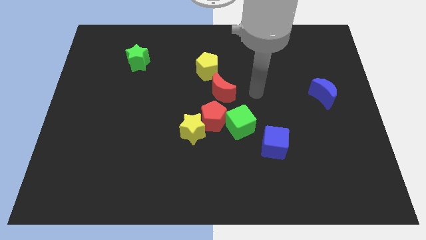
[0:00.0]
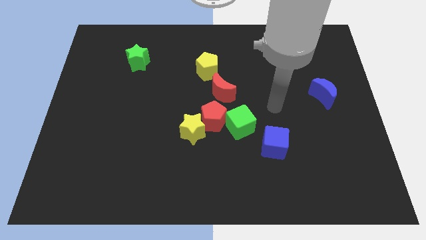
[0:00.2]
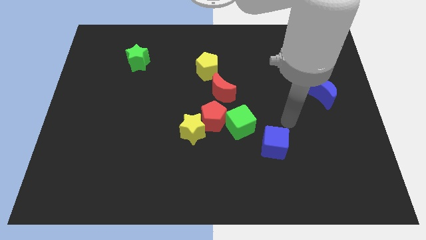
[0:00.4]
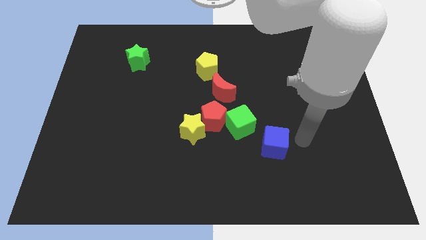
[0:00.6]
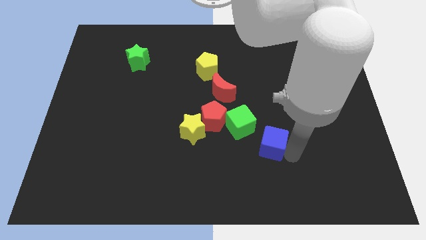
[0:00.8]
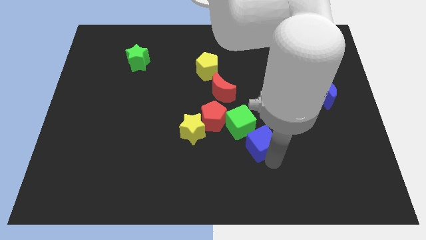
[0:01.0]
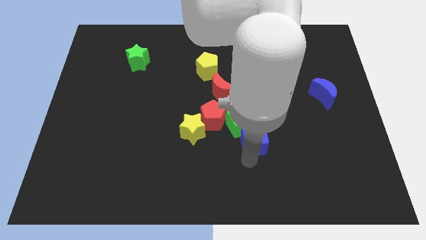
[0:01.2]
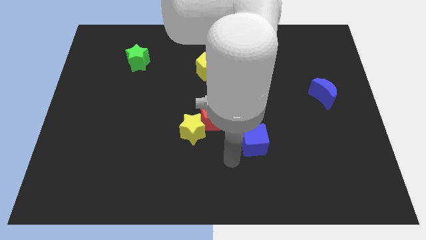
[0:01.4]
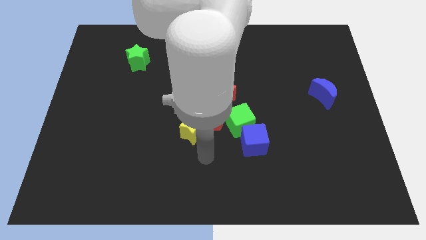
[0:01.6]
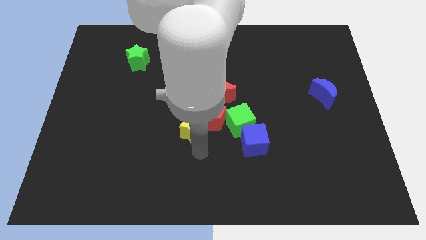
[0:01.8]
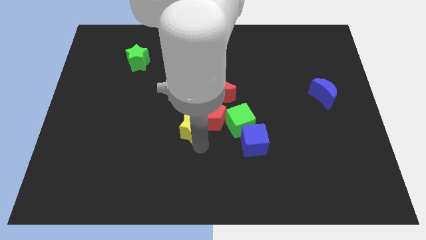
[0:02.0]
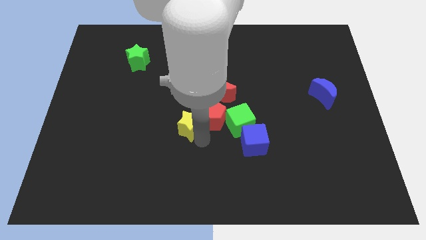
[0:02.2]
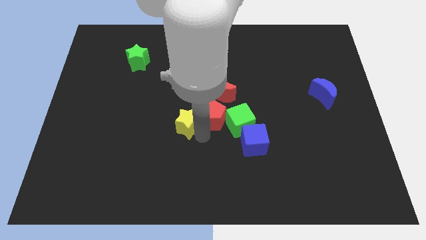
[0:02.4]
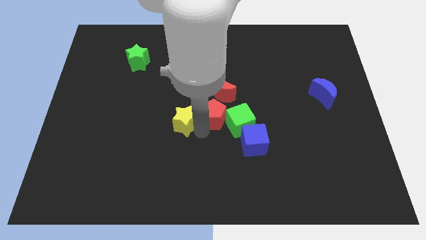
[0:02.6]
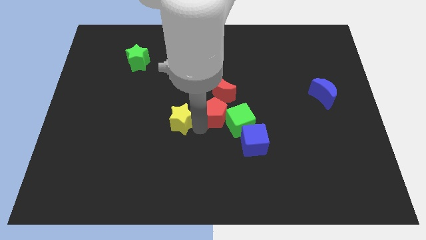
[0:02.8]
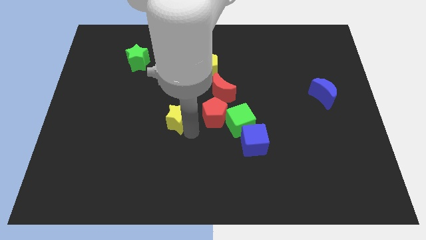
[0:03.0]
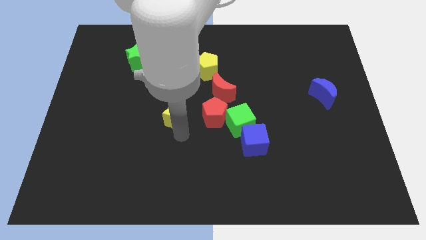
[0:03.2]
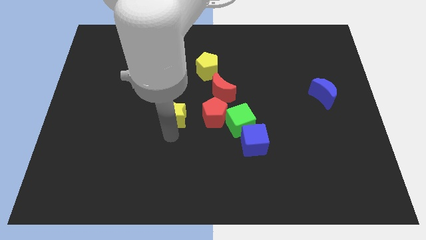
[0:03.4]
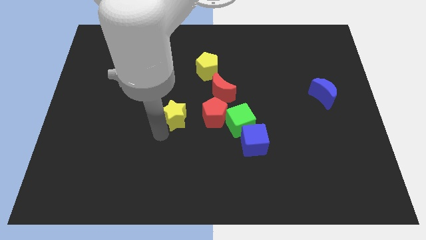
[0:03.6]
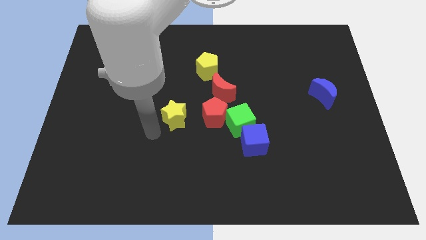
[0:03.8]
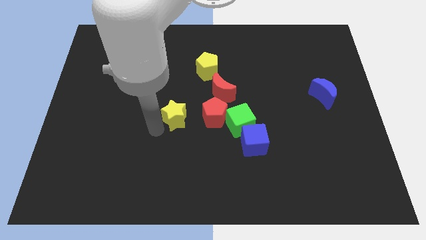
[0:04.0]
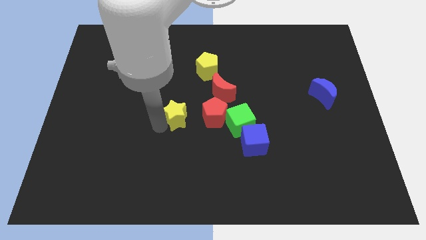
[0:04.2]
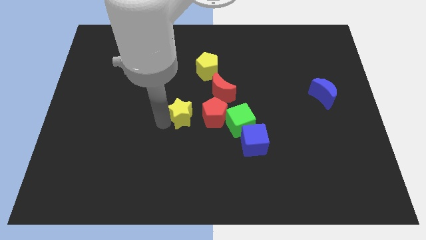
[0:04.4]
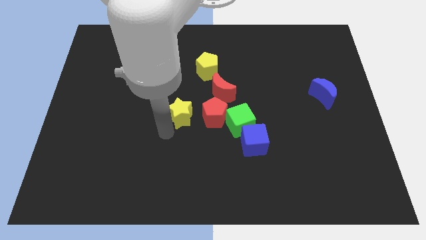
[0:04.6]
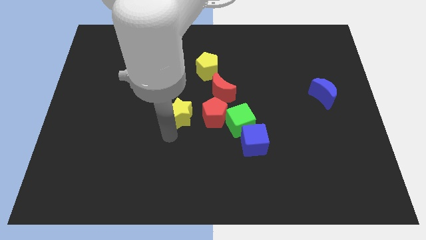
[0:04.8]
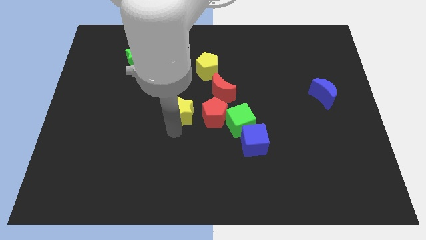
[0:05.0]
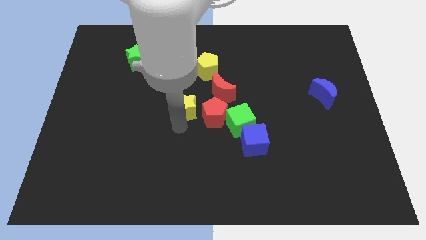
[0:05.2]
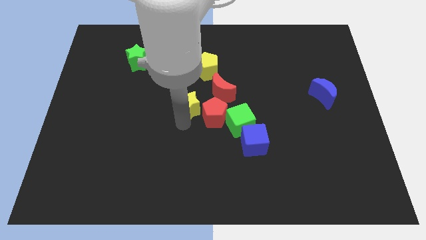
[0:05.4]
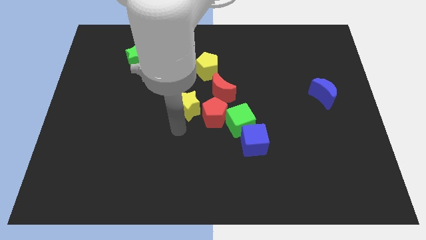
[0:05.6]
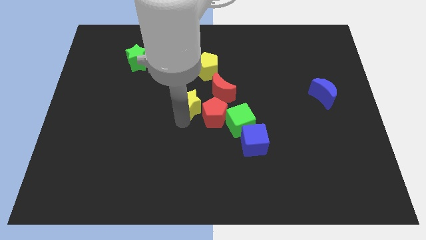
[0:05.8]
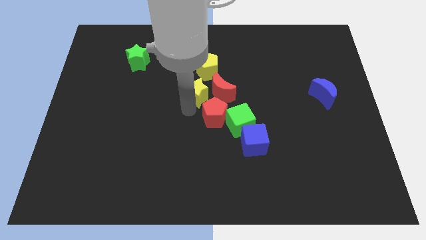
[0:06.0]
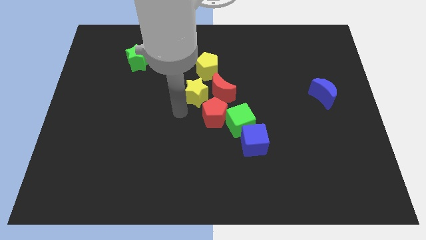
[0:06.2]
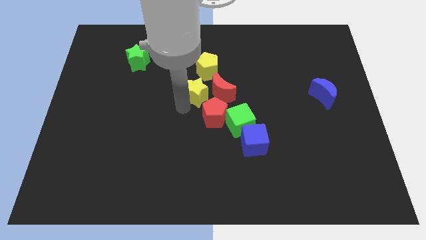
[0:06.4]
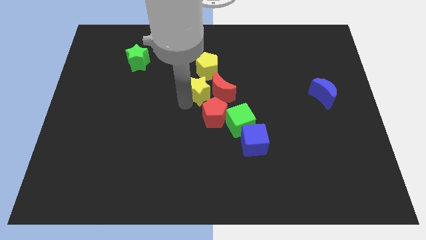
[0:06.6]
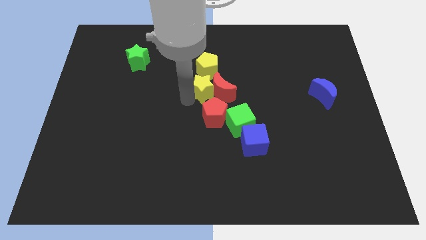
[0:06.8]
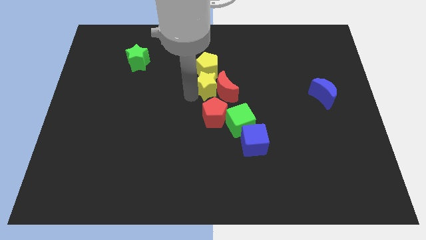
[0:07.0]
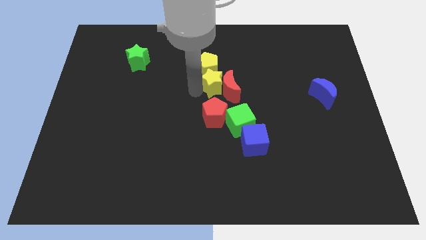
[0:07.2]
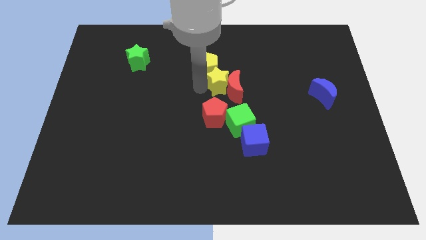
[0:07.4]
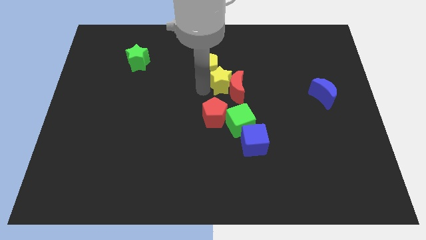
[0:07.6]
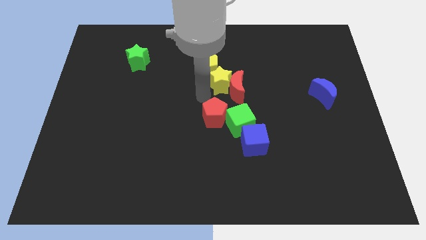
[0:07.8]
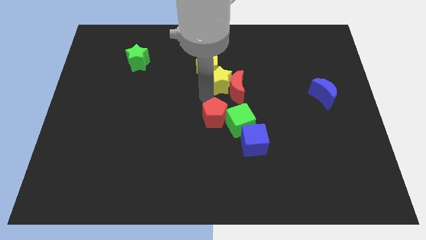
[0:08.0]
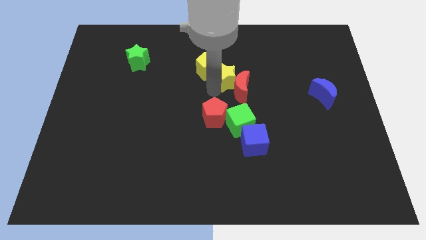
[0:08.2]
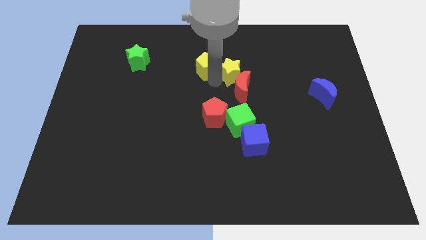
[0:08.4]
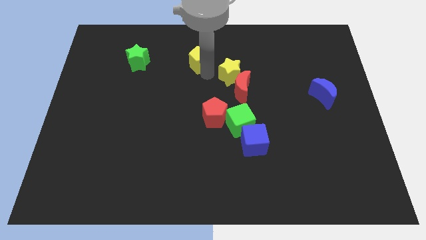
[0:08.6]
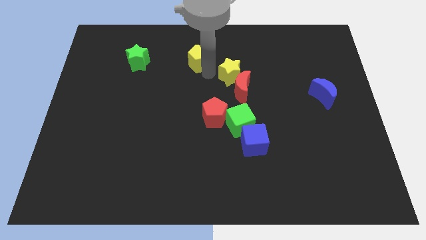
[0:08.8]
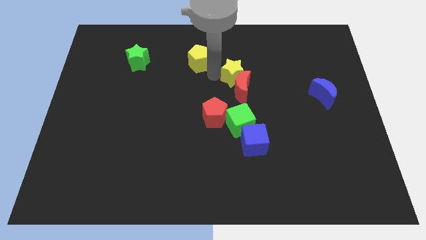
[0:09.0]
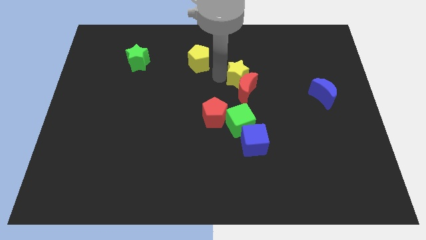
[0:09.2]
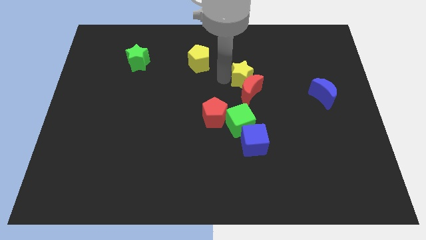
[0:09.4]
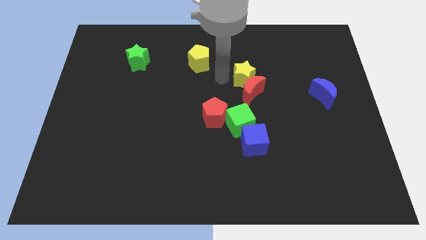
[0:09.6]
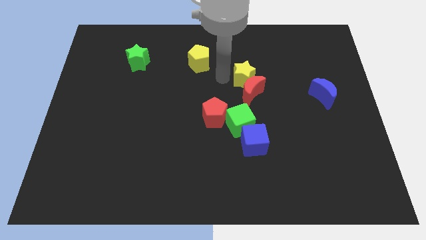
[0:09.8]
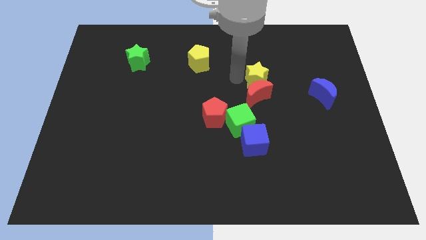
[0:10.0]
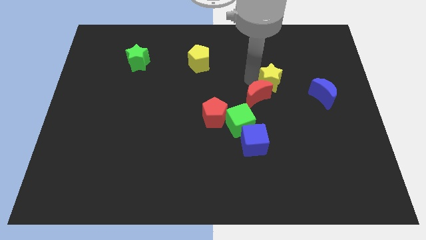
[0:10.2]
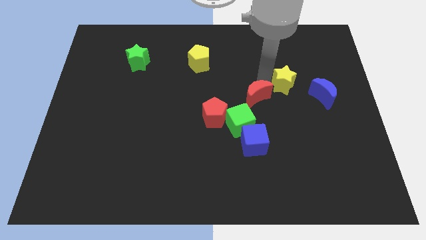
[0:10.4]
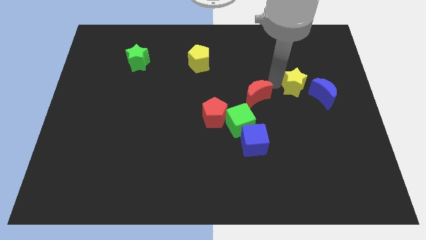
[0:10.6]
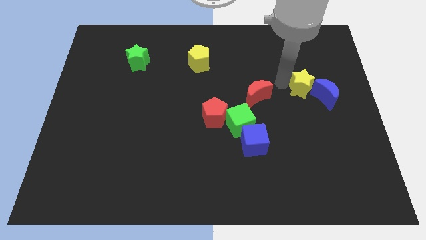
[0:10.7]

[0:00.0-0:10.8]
move the yellow star close to the blue moon

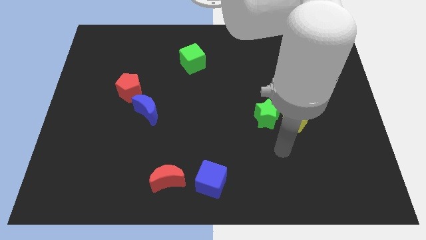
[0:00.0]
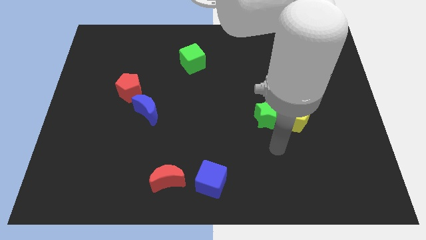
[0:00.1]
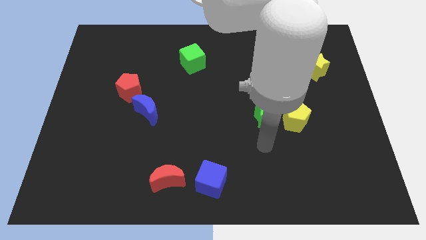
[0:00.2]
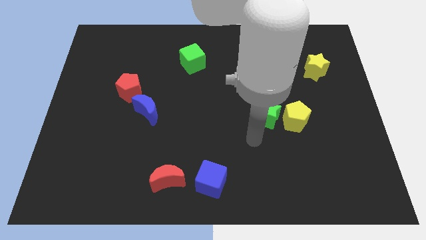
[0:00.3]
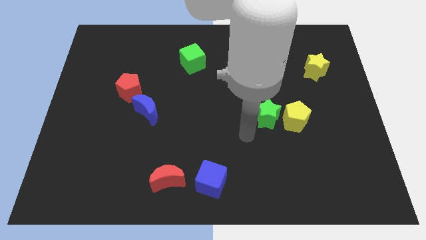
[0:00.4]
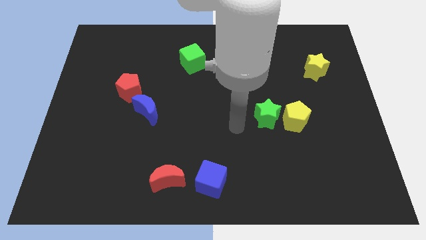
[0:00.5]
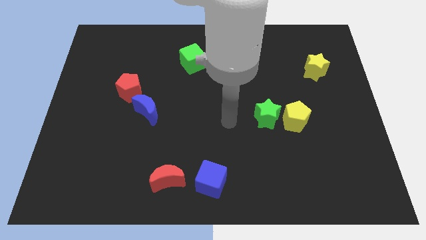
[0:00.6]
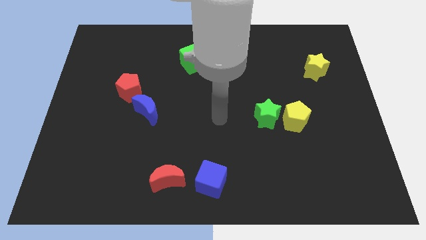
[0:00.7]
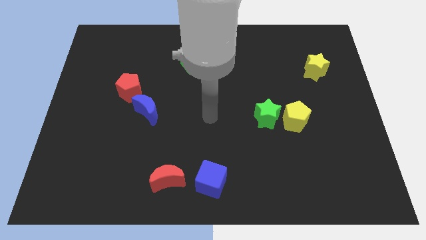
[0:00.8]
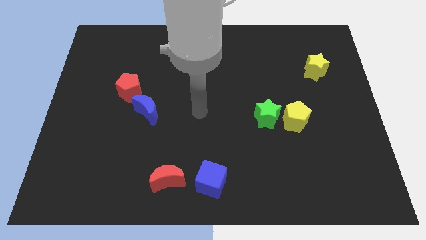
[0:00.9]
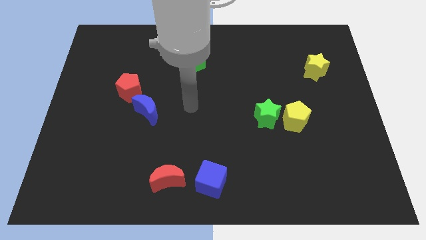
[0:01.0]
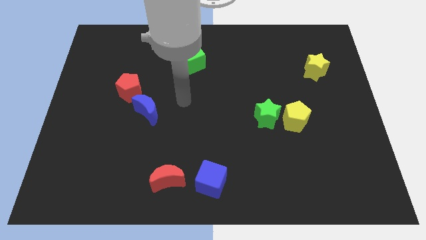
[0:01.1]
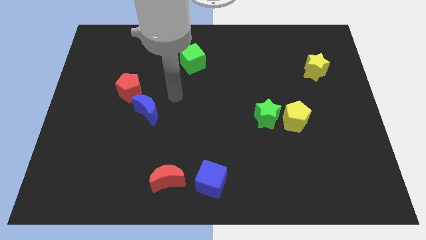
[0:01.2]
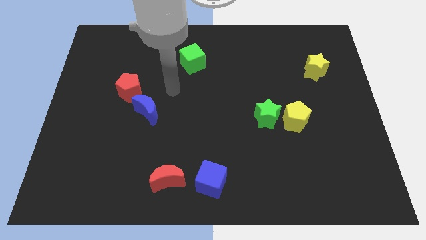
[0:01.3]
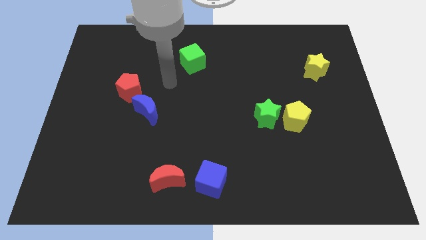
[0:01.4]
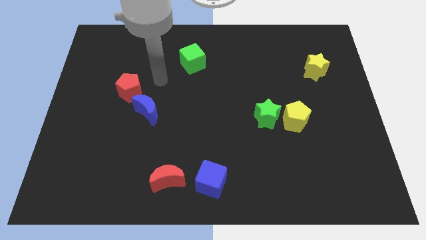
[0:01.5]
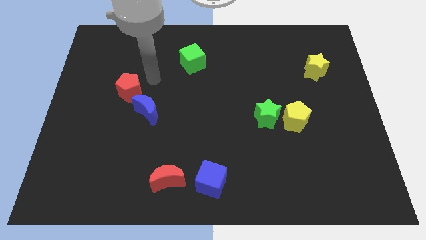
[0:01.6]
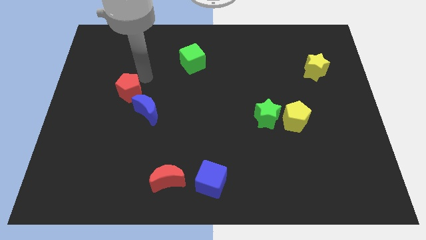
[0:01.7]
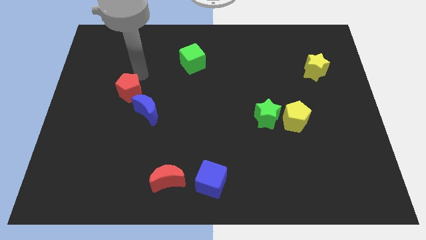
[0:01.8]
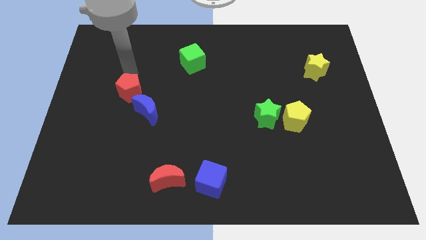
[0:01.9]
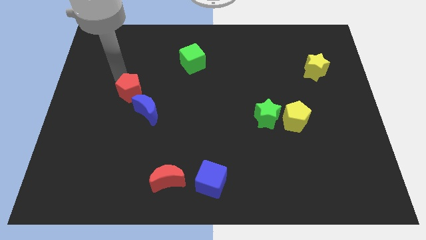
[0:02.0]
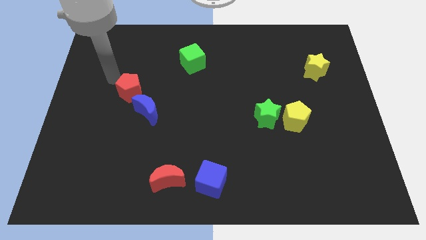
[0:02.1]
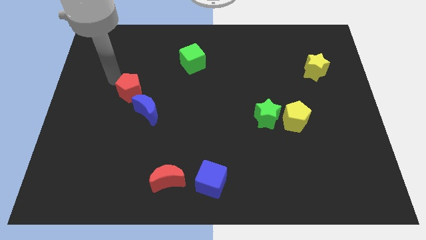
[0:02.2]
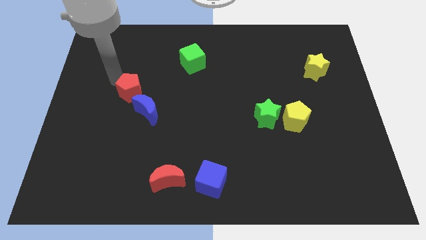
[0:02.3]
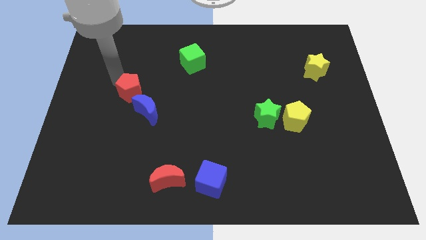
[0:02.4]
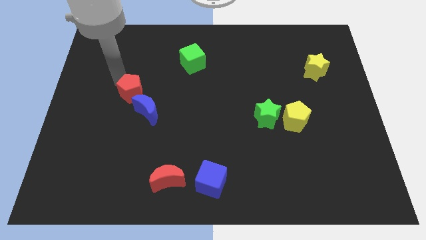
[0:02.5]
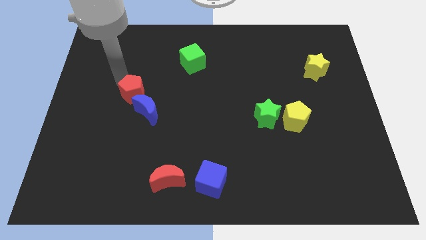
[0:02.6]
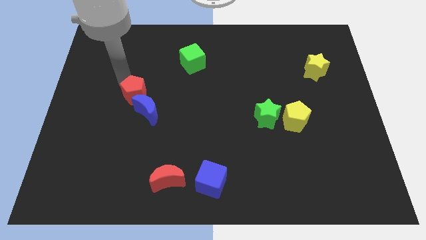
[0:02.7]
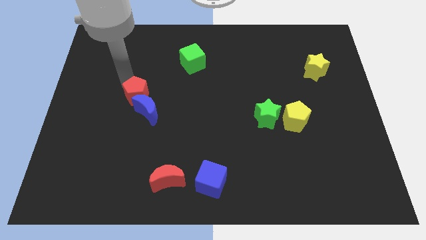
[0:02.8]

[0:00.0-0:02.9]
move the red pentagon next to the blue moon
